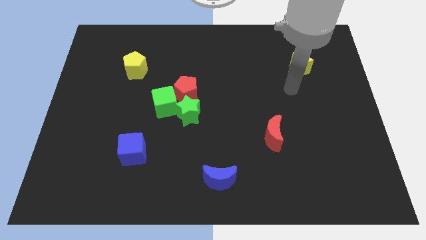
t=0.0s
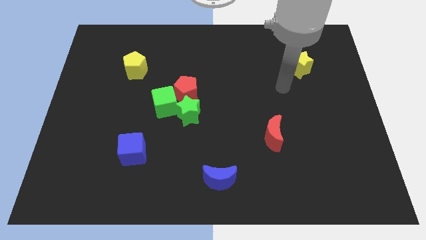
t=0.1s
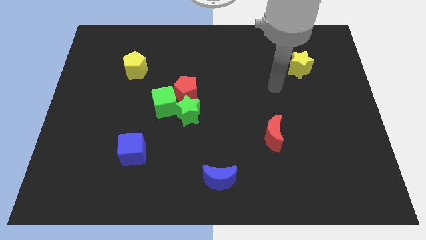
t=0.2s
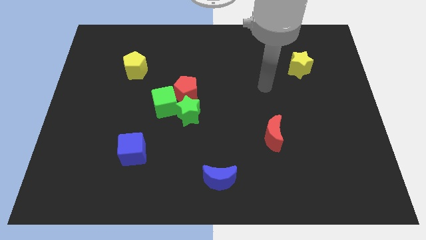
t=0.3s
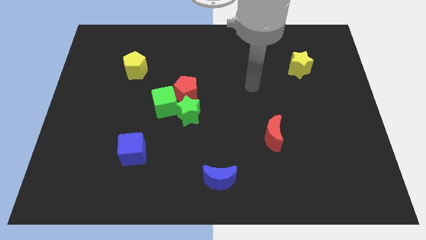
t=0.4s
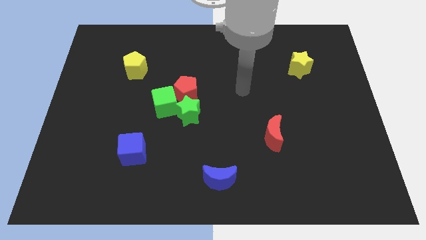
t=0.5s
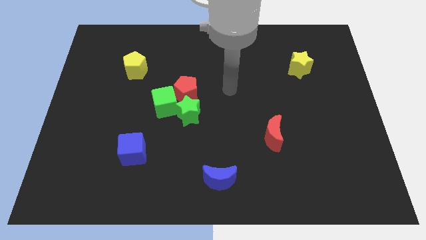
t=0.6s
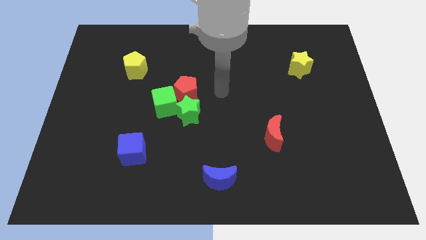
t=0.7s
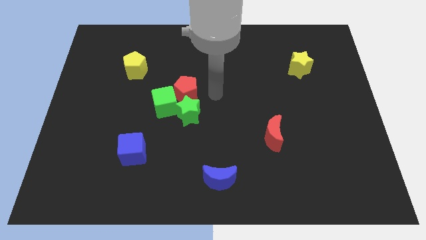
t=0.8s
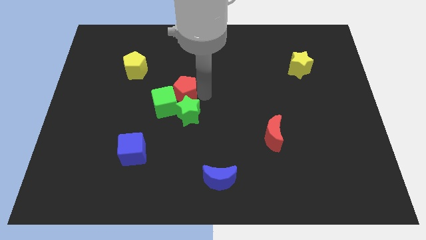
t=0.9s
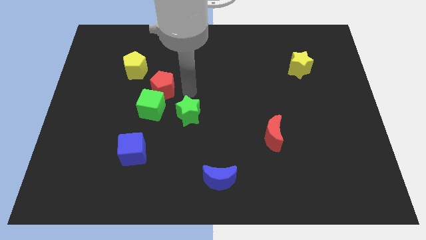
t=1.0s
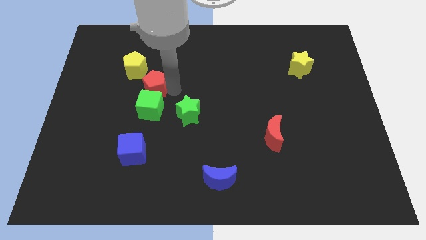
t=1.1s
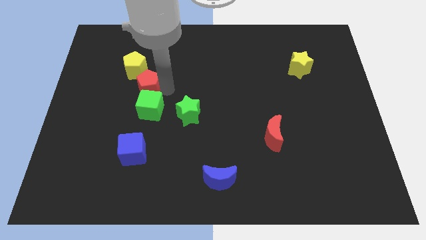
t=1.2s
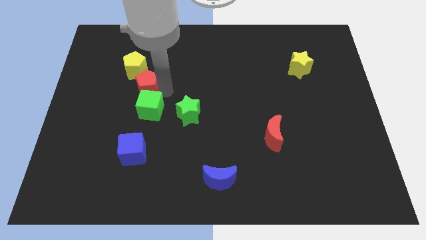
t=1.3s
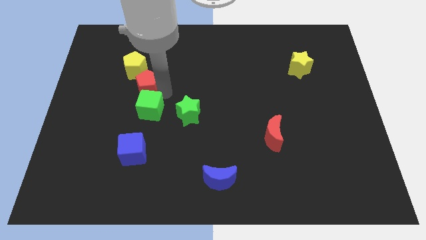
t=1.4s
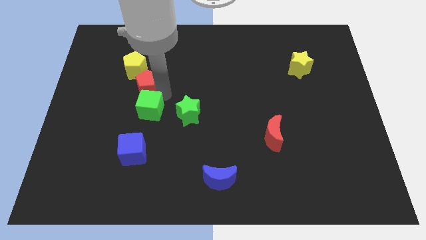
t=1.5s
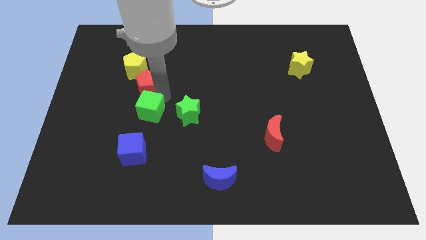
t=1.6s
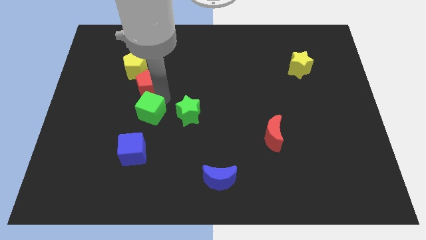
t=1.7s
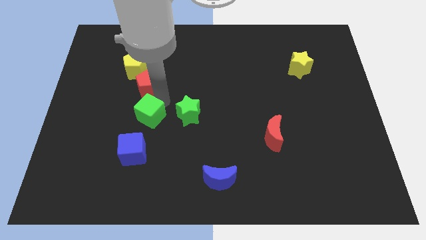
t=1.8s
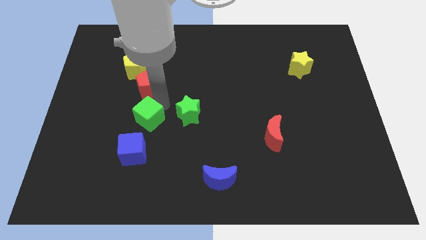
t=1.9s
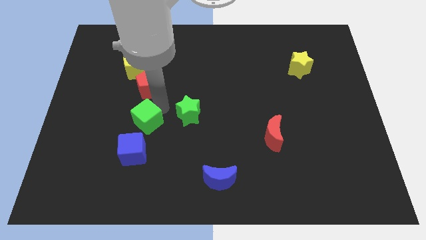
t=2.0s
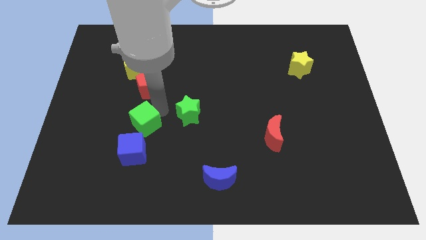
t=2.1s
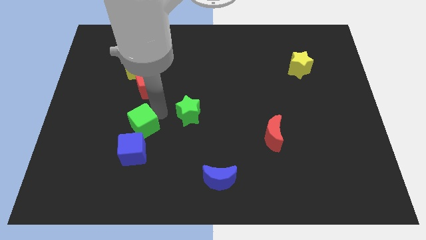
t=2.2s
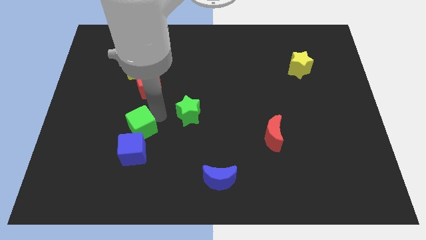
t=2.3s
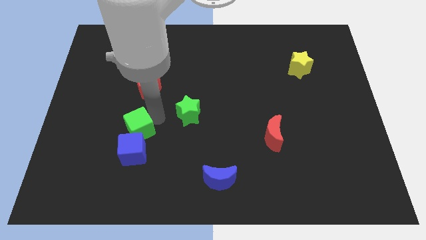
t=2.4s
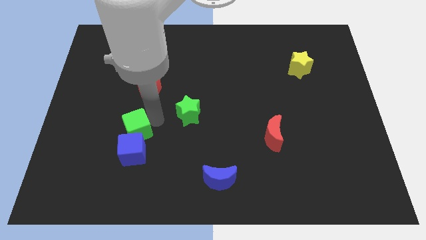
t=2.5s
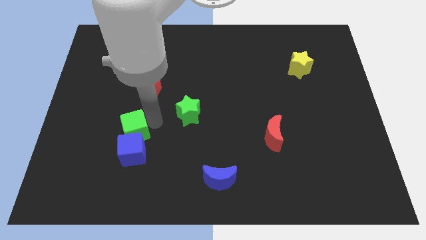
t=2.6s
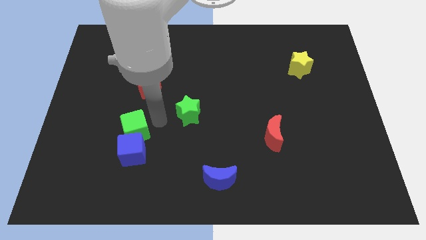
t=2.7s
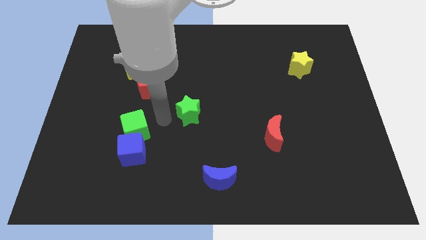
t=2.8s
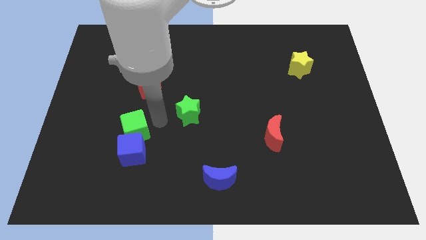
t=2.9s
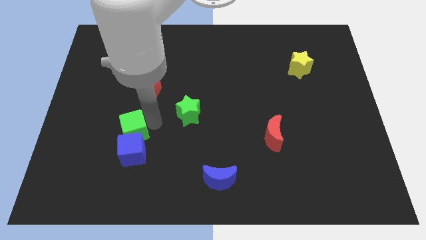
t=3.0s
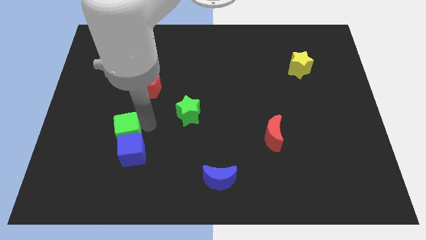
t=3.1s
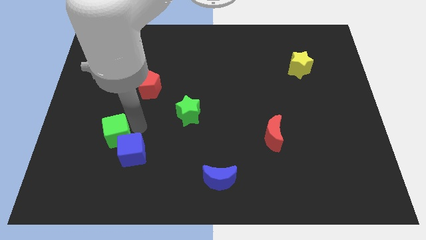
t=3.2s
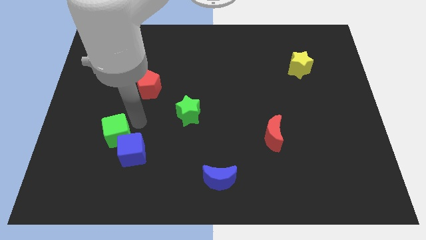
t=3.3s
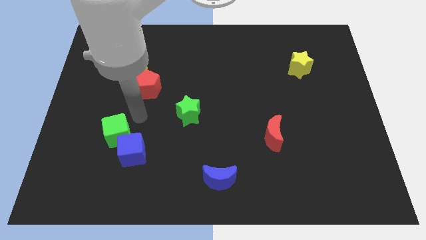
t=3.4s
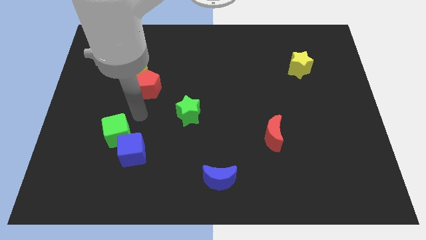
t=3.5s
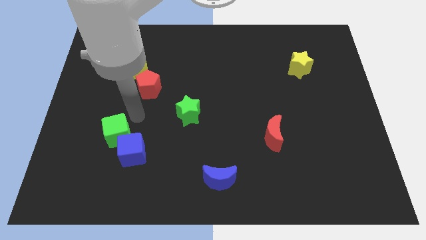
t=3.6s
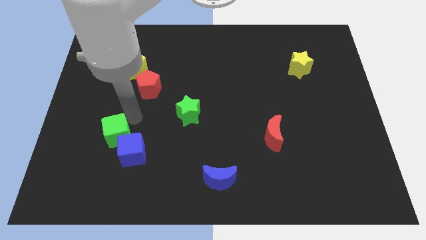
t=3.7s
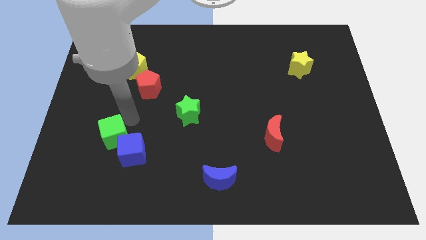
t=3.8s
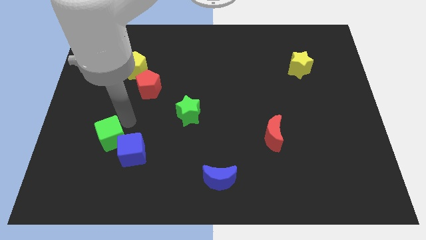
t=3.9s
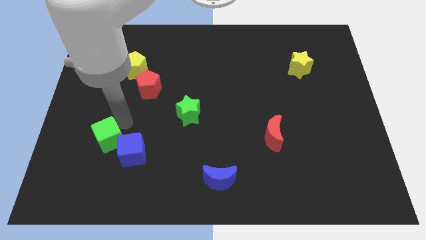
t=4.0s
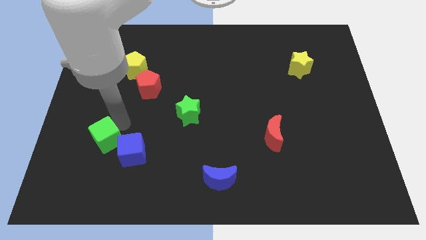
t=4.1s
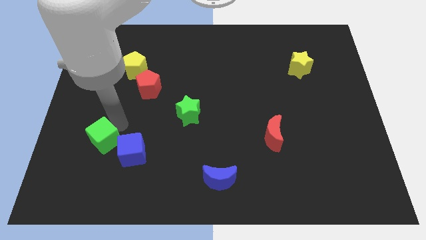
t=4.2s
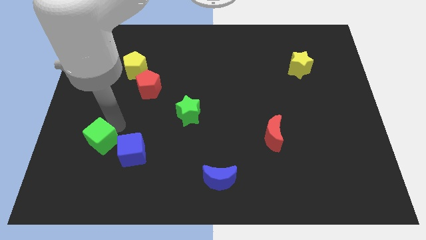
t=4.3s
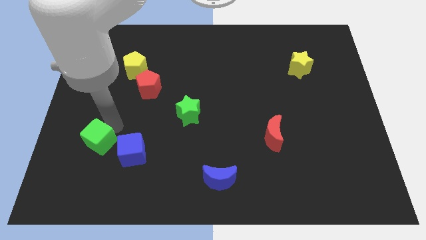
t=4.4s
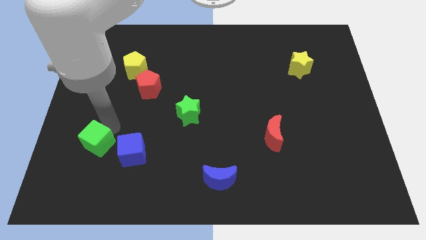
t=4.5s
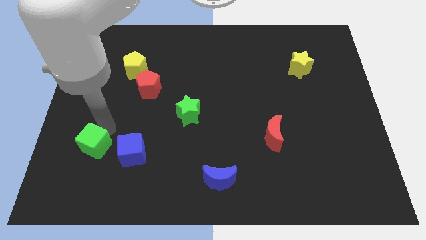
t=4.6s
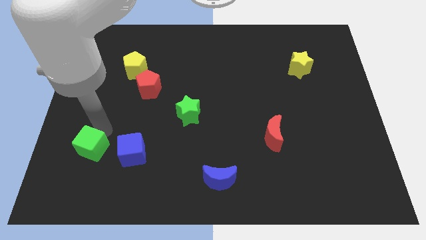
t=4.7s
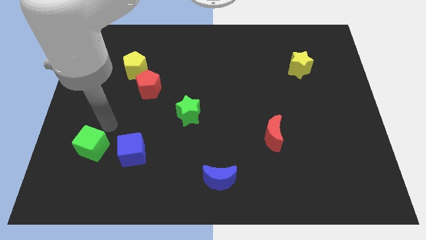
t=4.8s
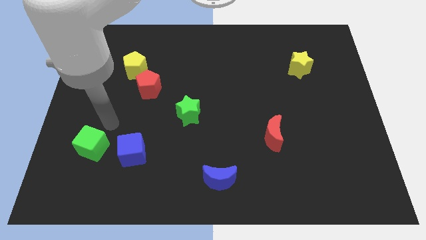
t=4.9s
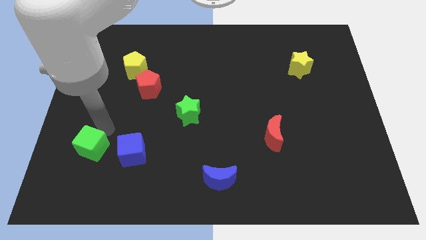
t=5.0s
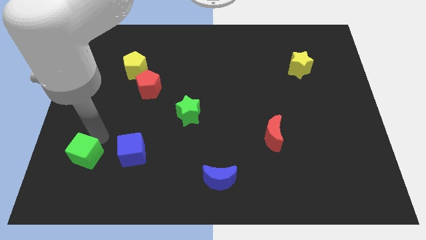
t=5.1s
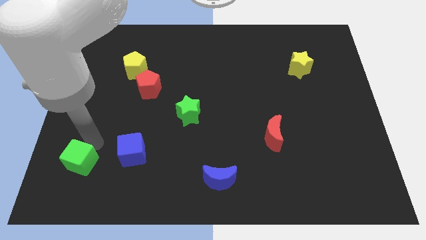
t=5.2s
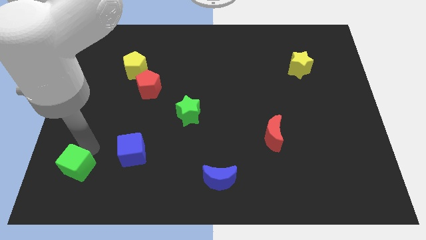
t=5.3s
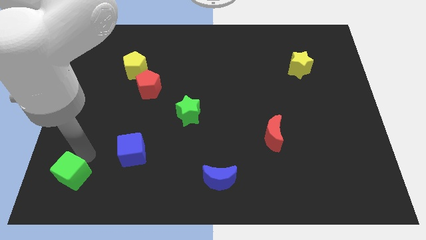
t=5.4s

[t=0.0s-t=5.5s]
move the green cube to the bottom left

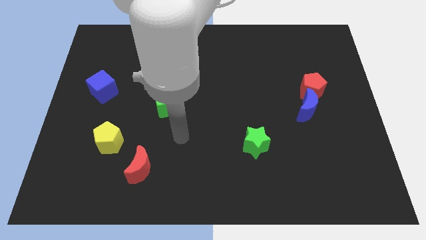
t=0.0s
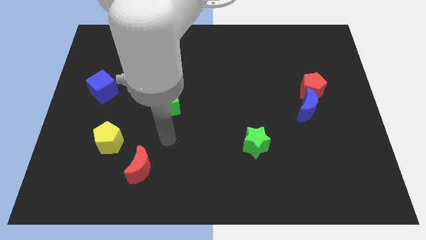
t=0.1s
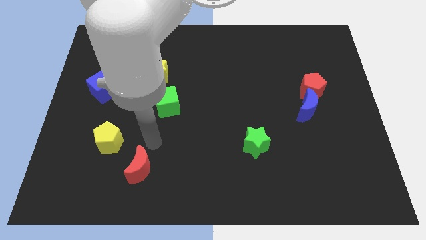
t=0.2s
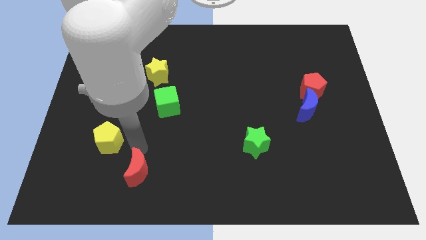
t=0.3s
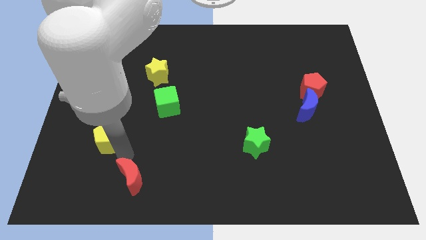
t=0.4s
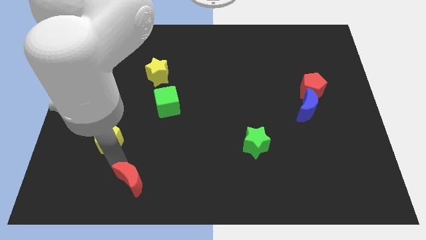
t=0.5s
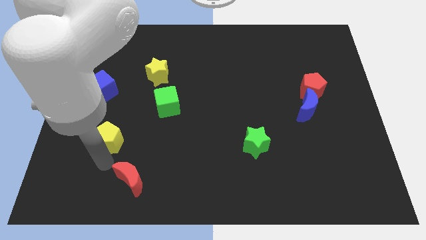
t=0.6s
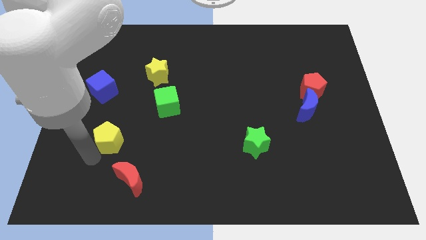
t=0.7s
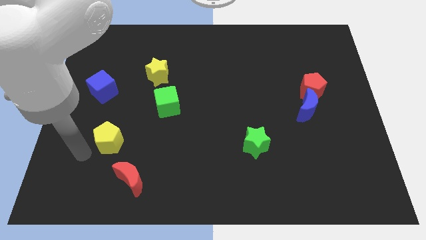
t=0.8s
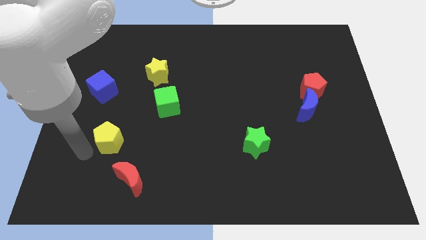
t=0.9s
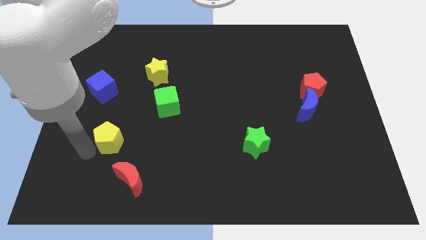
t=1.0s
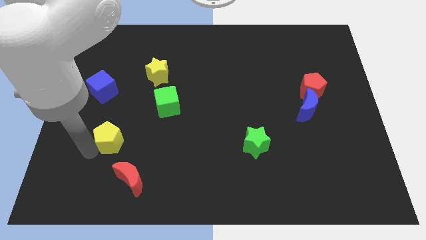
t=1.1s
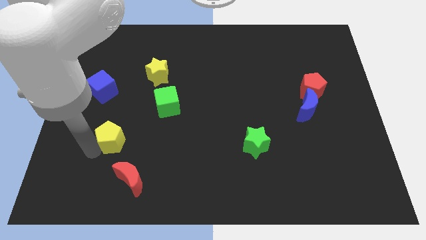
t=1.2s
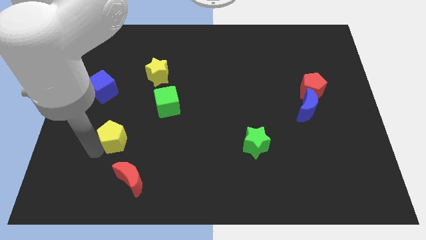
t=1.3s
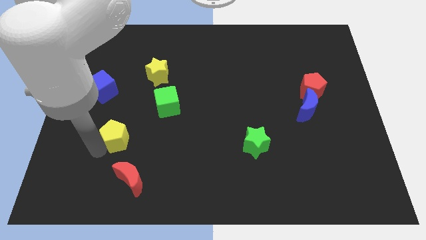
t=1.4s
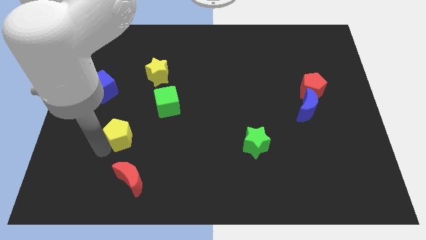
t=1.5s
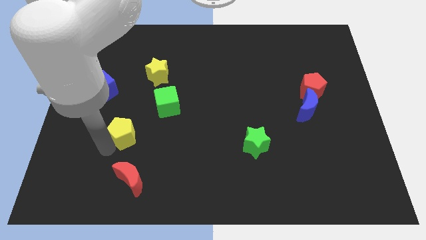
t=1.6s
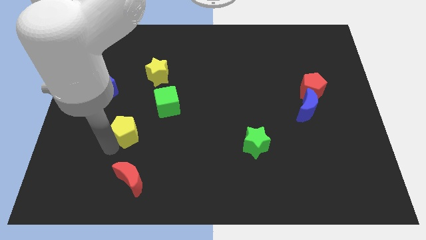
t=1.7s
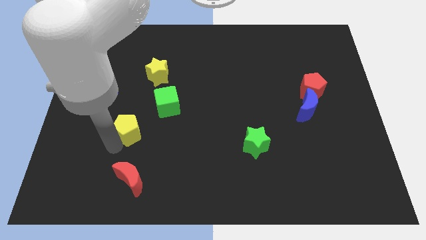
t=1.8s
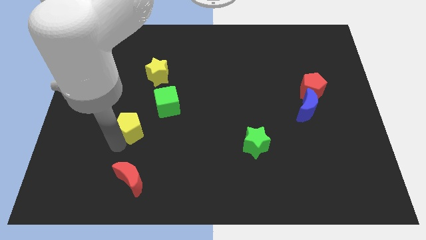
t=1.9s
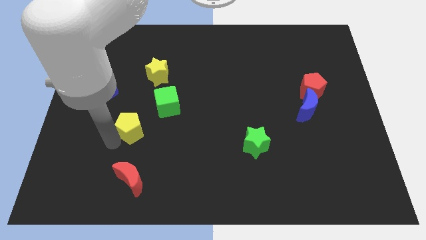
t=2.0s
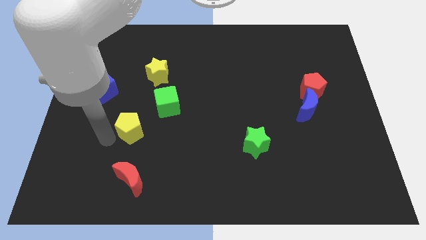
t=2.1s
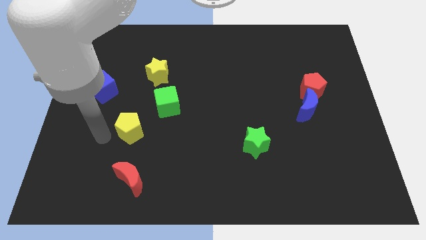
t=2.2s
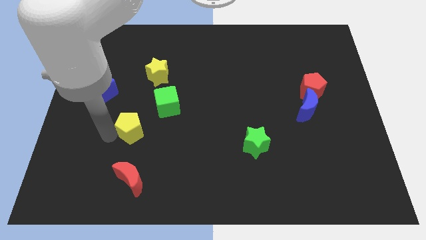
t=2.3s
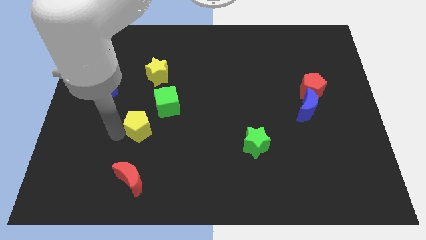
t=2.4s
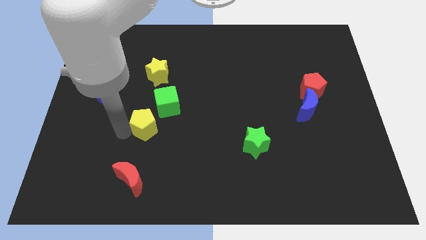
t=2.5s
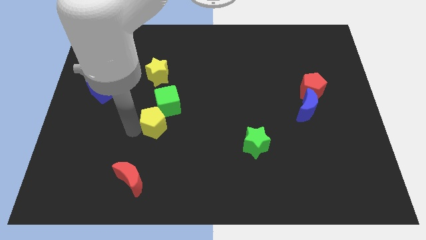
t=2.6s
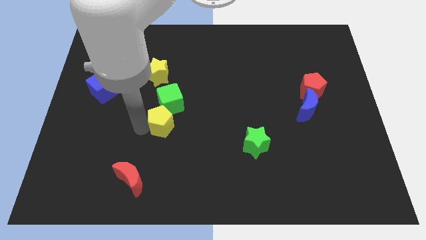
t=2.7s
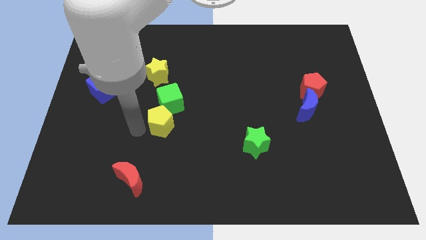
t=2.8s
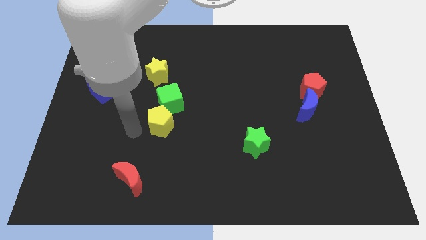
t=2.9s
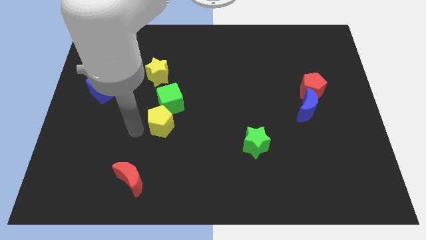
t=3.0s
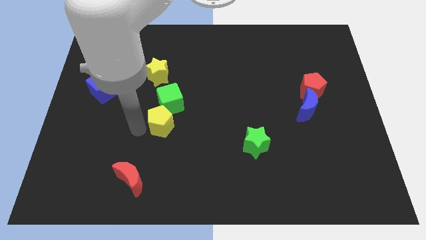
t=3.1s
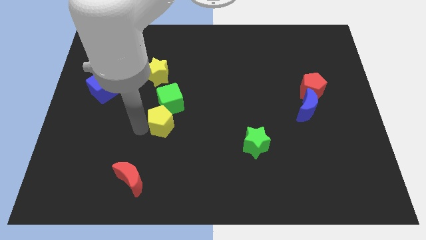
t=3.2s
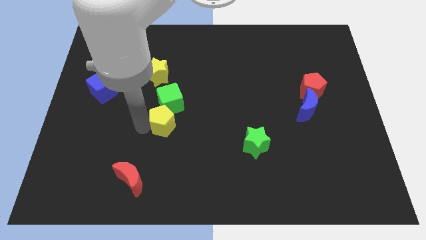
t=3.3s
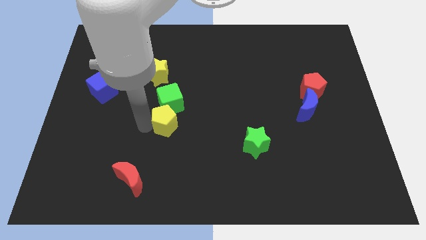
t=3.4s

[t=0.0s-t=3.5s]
put the yellow pentagon to the center
